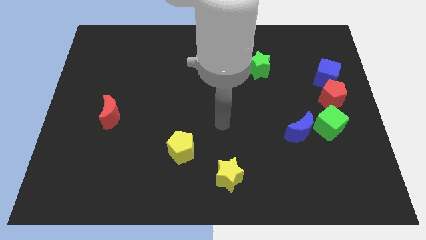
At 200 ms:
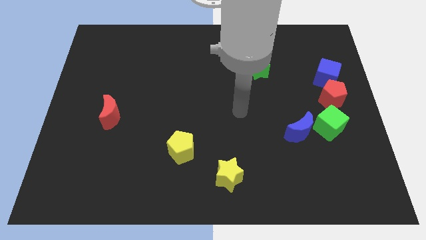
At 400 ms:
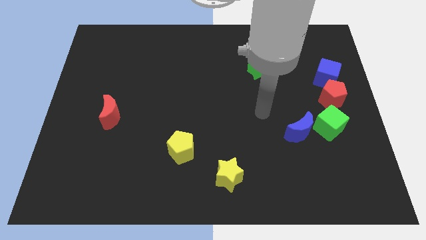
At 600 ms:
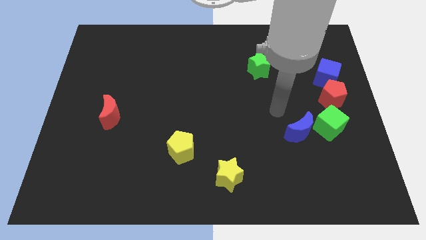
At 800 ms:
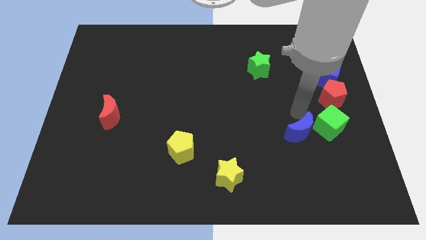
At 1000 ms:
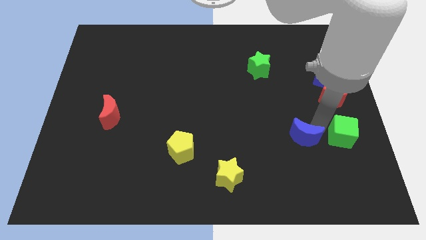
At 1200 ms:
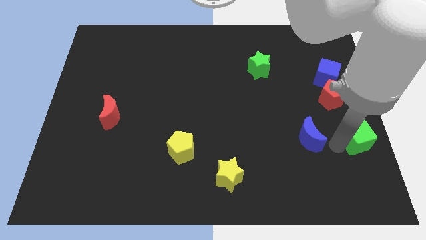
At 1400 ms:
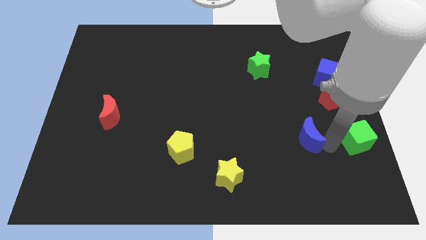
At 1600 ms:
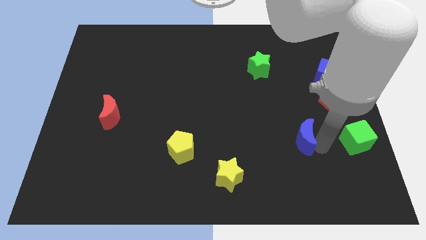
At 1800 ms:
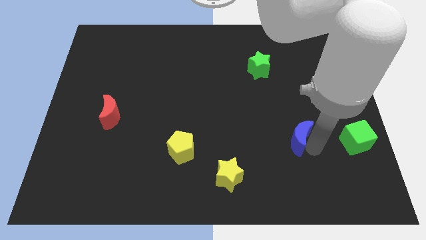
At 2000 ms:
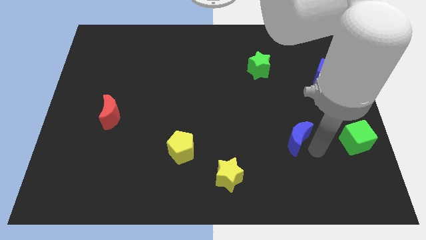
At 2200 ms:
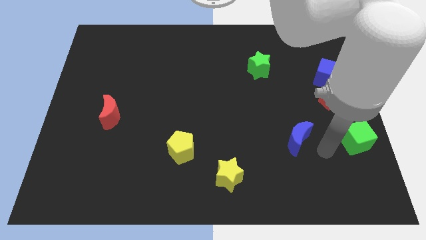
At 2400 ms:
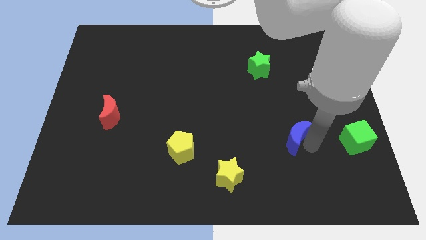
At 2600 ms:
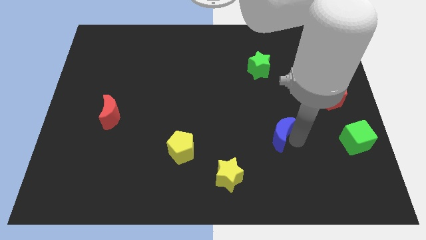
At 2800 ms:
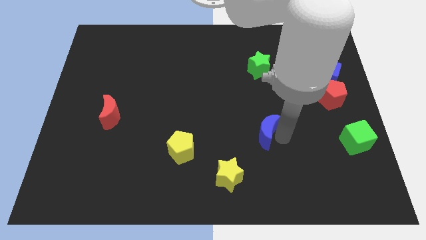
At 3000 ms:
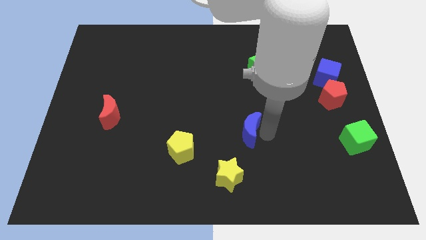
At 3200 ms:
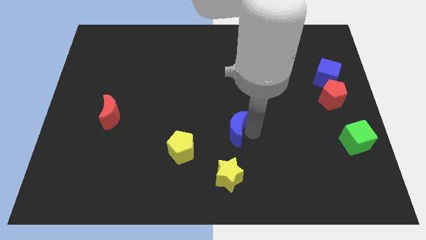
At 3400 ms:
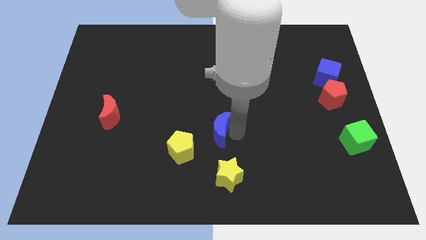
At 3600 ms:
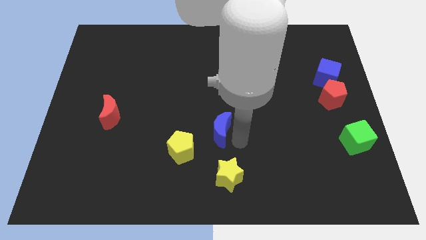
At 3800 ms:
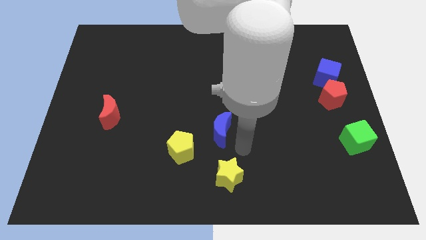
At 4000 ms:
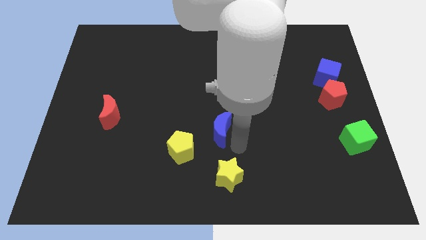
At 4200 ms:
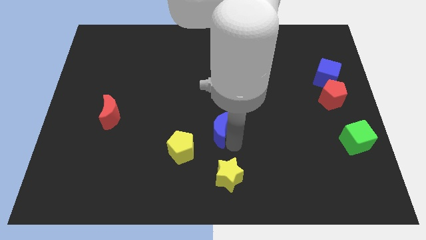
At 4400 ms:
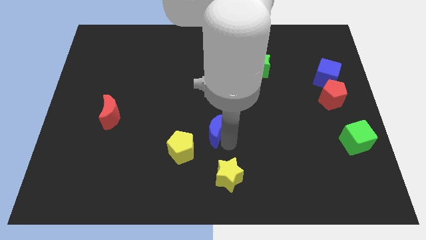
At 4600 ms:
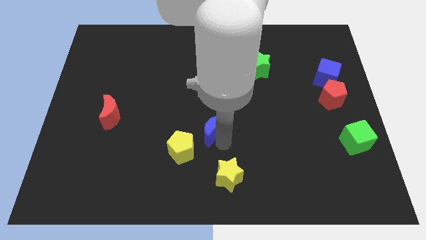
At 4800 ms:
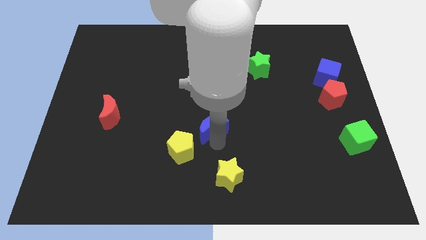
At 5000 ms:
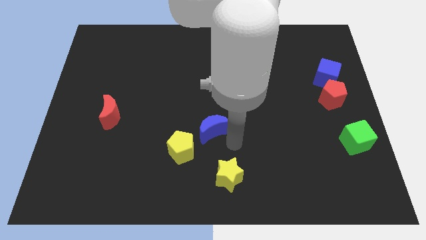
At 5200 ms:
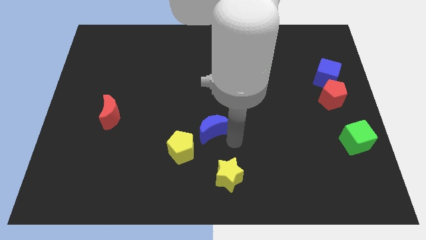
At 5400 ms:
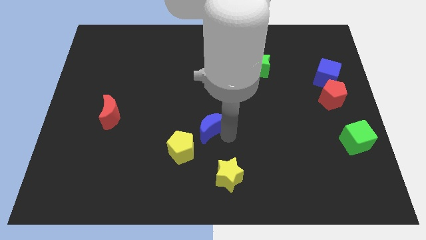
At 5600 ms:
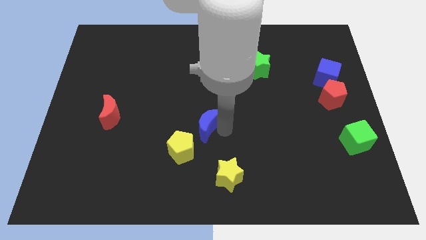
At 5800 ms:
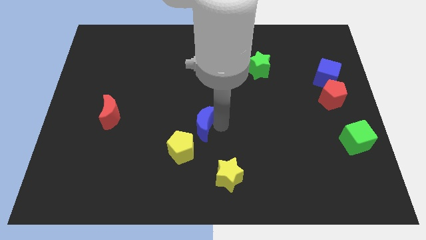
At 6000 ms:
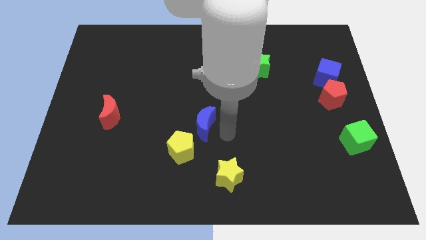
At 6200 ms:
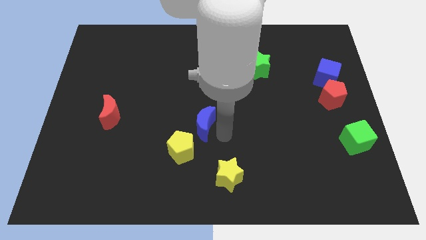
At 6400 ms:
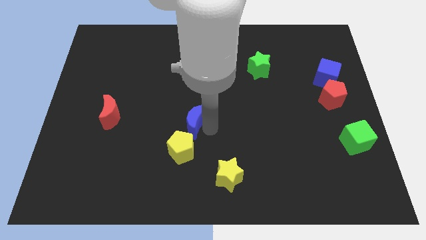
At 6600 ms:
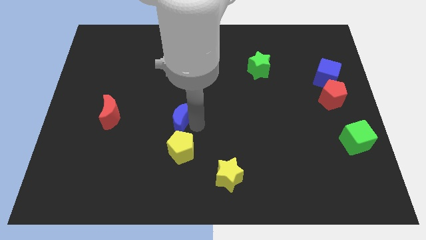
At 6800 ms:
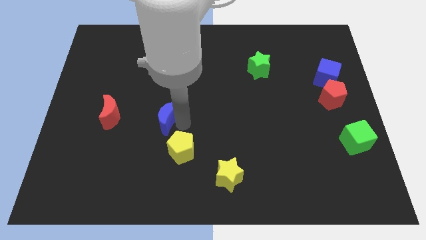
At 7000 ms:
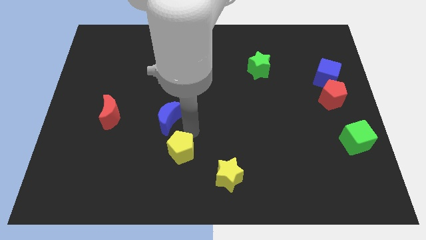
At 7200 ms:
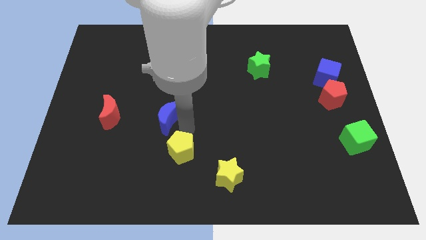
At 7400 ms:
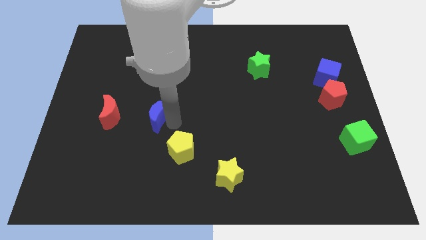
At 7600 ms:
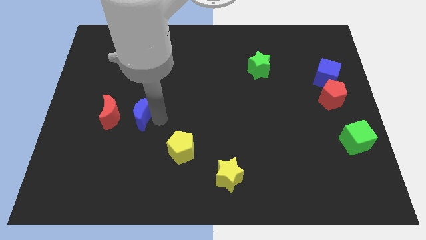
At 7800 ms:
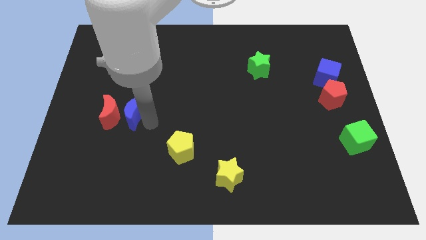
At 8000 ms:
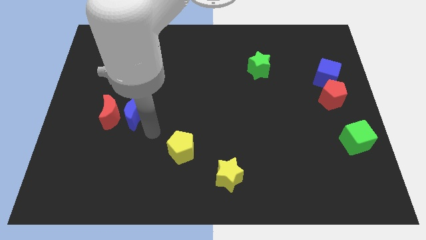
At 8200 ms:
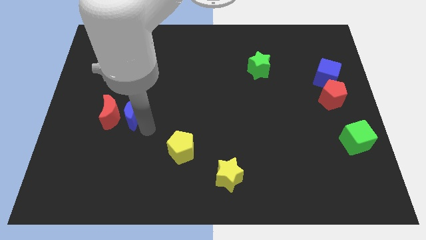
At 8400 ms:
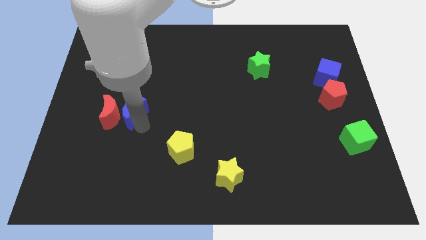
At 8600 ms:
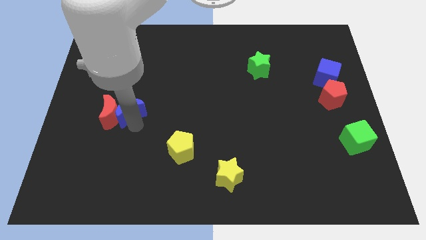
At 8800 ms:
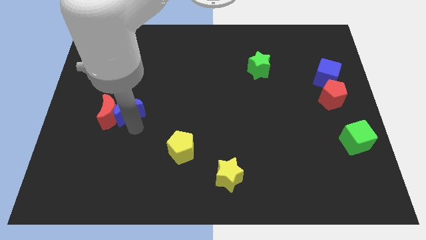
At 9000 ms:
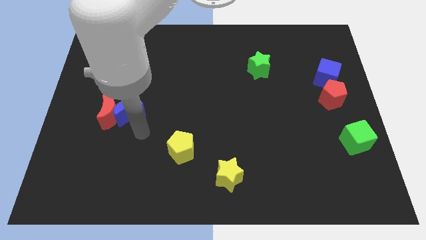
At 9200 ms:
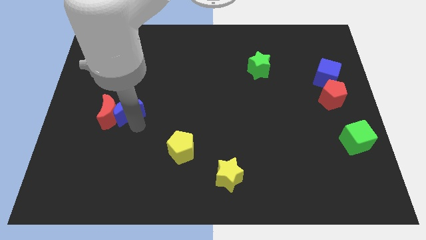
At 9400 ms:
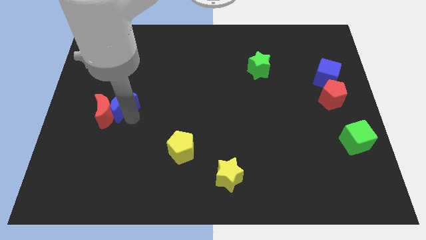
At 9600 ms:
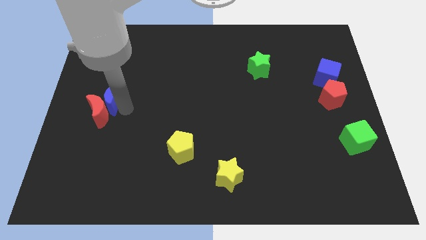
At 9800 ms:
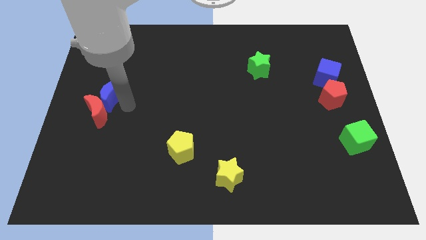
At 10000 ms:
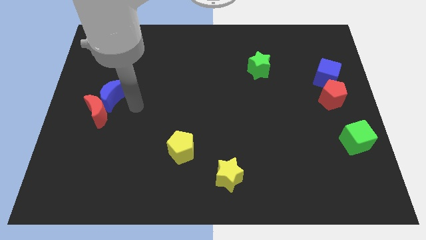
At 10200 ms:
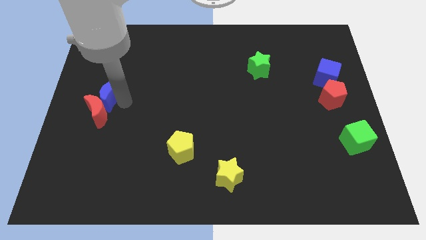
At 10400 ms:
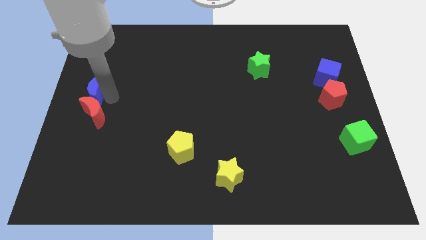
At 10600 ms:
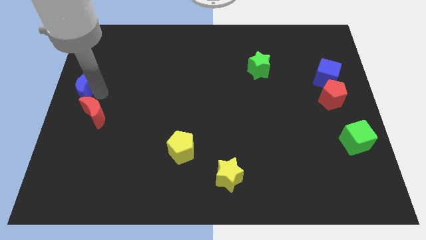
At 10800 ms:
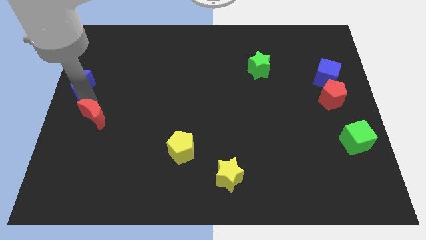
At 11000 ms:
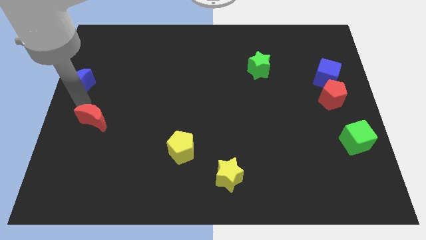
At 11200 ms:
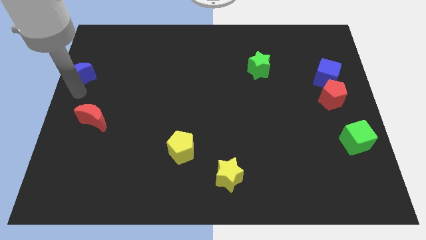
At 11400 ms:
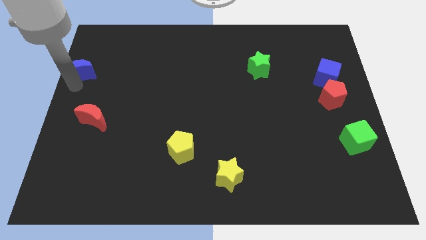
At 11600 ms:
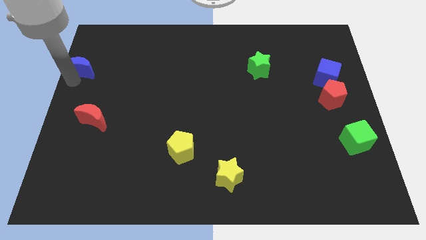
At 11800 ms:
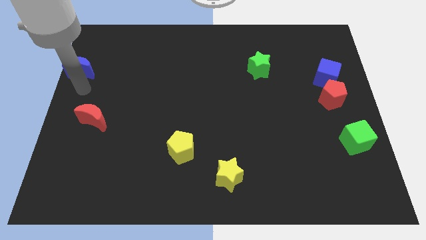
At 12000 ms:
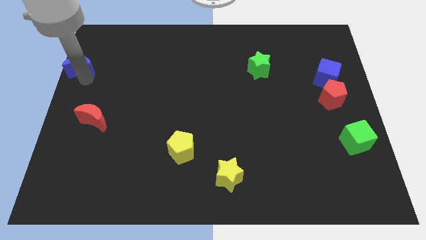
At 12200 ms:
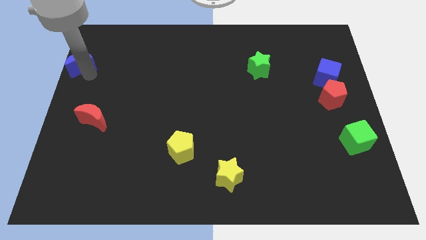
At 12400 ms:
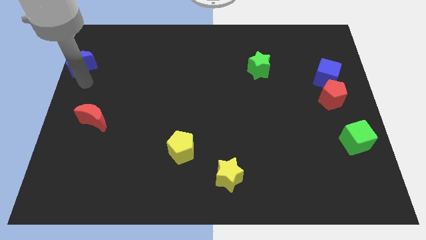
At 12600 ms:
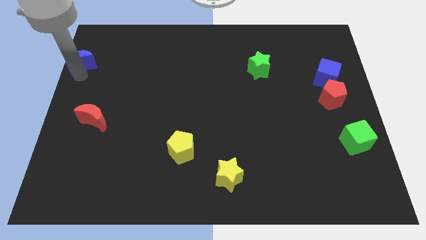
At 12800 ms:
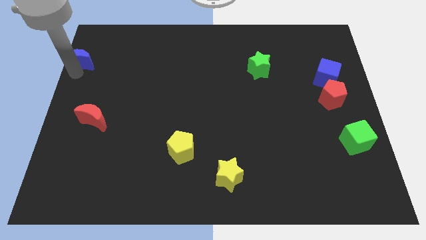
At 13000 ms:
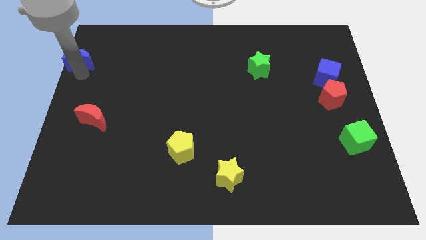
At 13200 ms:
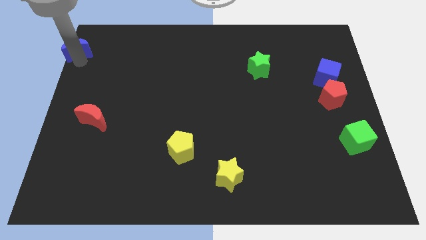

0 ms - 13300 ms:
push the blue moon to the top left of the board
